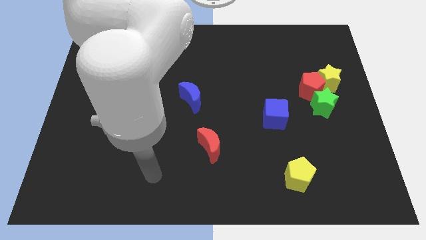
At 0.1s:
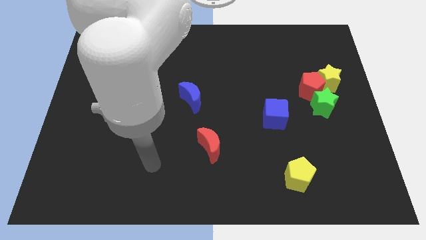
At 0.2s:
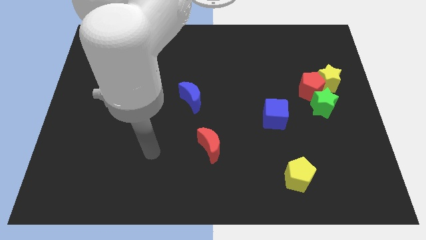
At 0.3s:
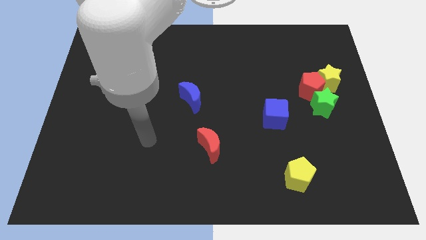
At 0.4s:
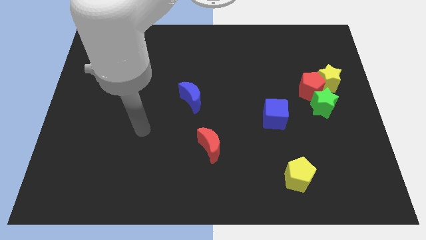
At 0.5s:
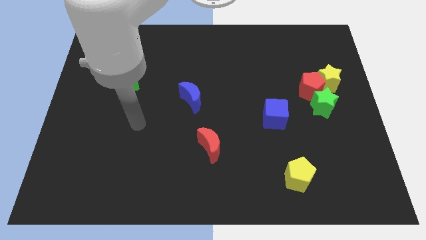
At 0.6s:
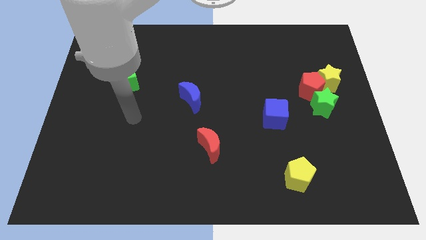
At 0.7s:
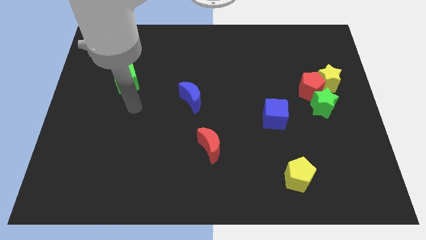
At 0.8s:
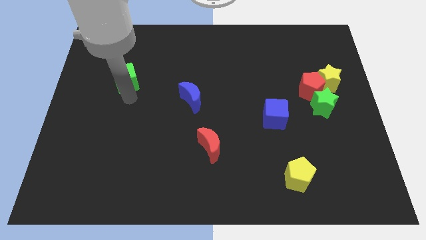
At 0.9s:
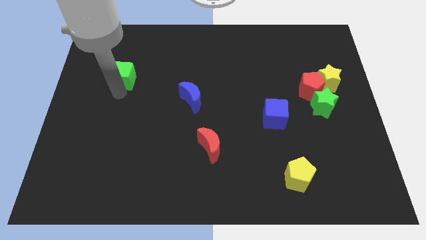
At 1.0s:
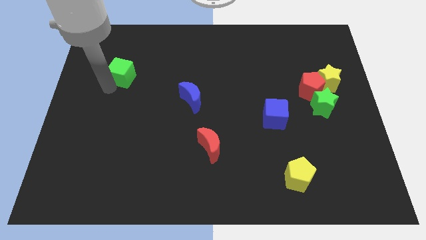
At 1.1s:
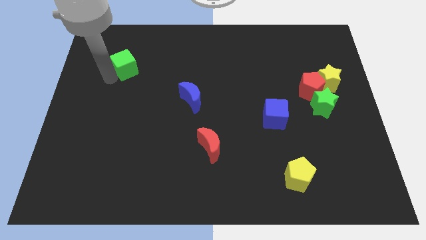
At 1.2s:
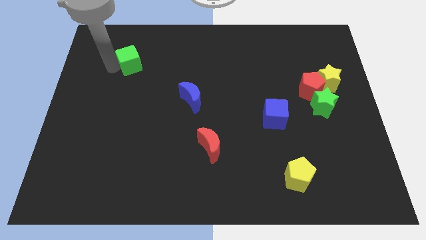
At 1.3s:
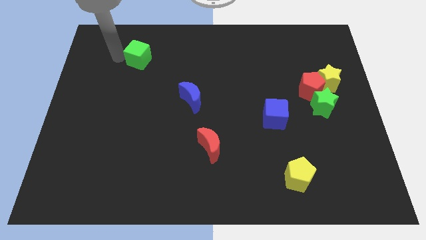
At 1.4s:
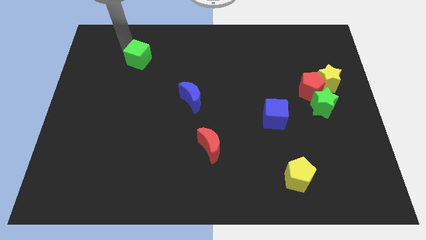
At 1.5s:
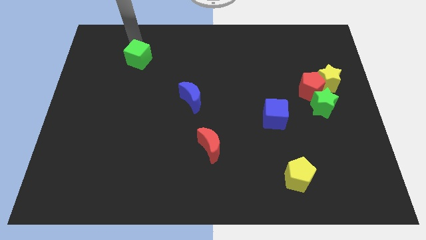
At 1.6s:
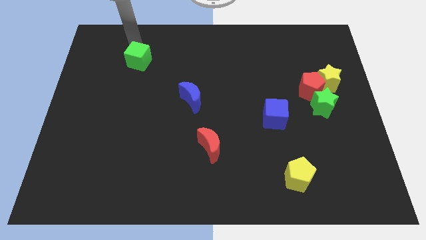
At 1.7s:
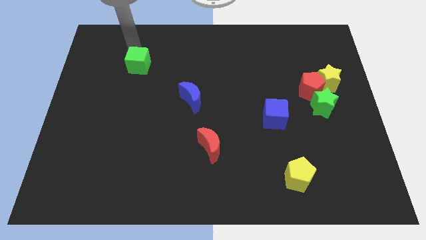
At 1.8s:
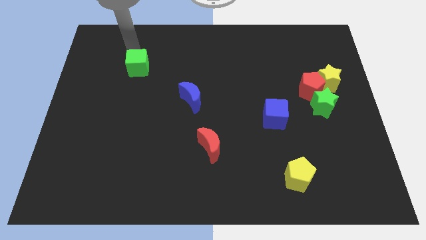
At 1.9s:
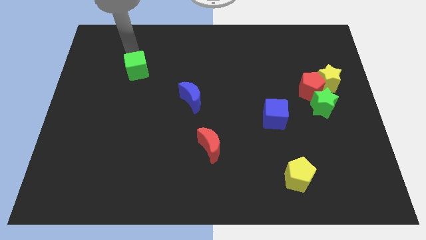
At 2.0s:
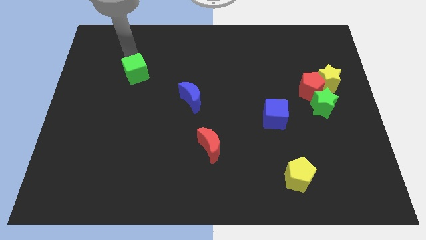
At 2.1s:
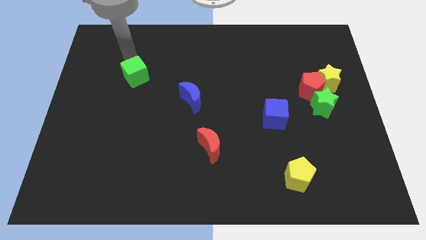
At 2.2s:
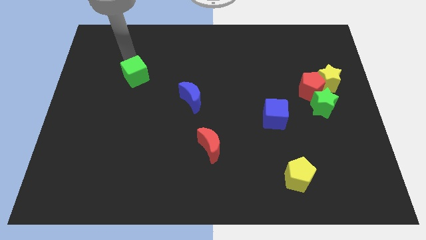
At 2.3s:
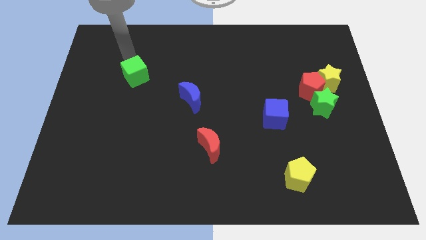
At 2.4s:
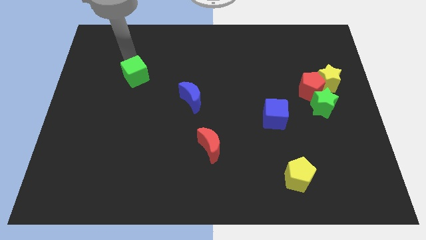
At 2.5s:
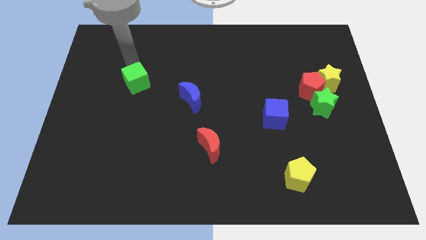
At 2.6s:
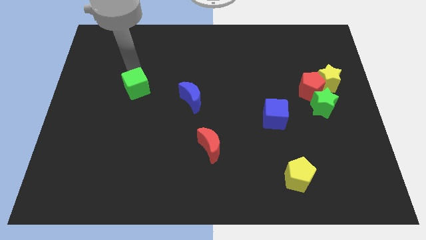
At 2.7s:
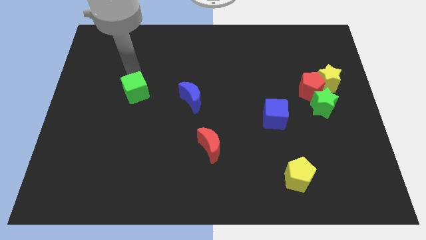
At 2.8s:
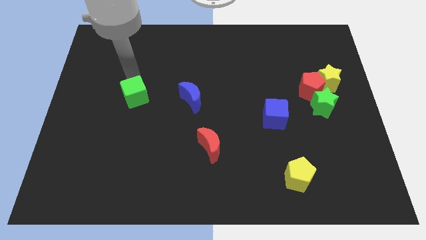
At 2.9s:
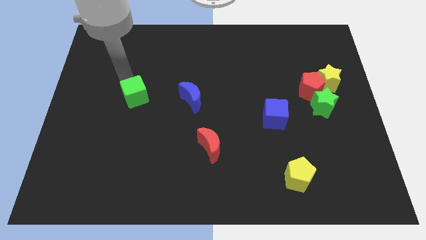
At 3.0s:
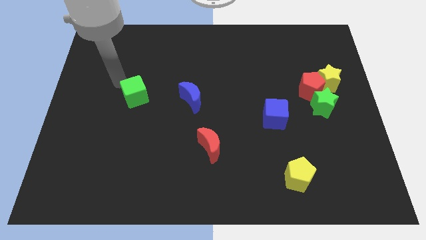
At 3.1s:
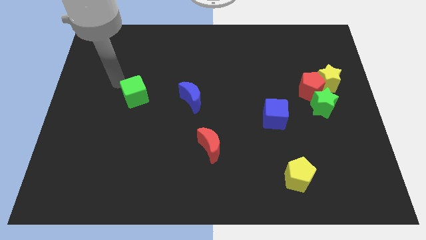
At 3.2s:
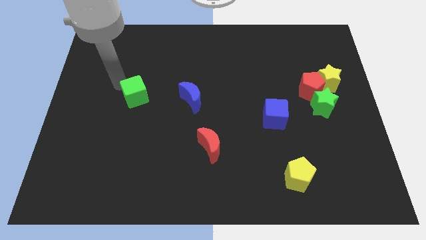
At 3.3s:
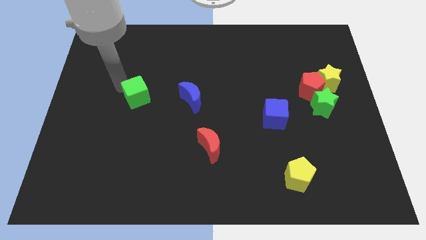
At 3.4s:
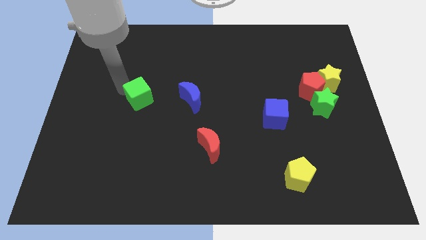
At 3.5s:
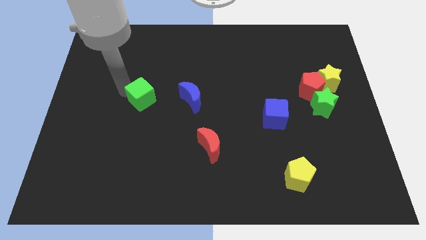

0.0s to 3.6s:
slide the green cube a little downwards and then right

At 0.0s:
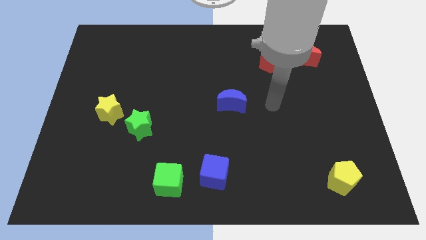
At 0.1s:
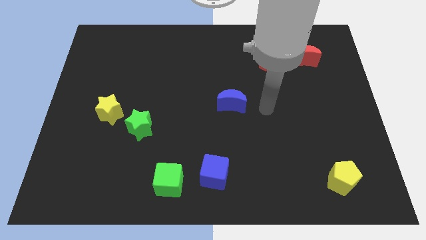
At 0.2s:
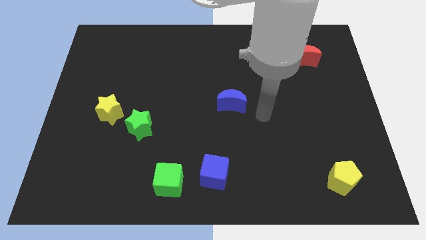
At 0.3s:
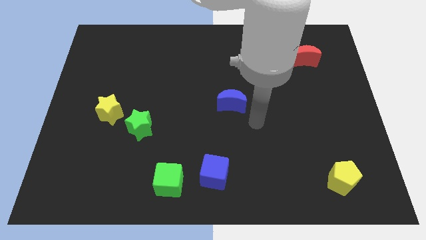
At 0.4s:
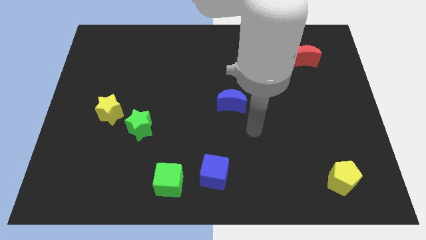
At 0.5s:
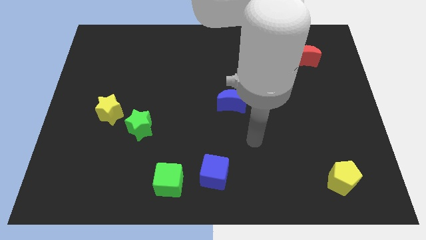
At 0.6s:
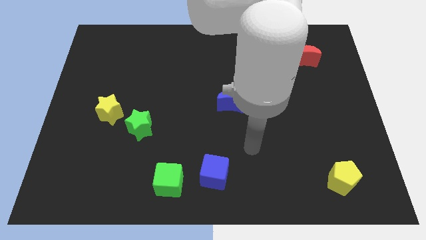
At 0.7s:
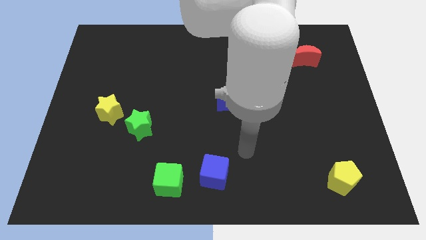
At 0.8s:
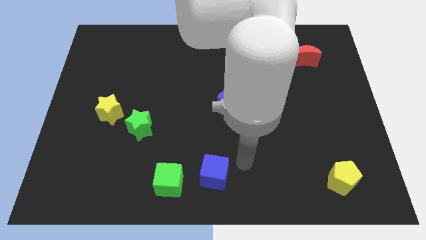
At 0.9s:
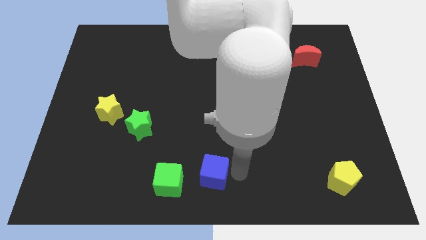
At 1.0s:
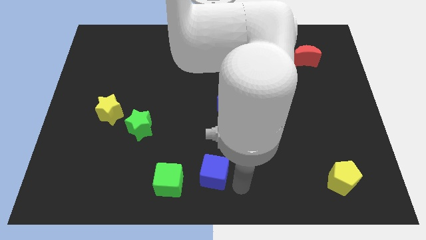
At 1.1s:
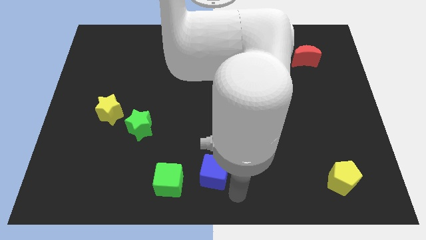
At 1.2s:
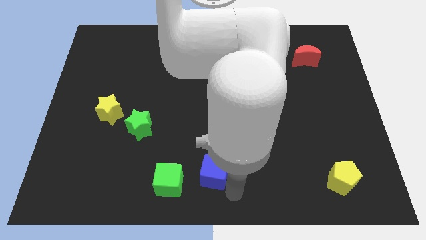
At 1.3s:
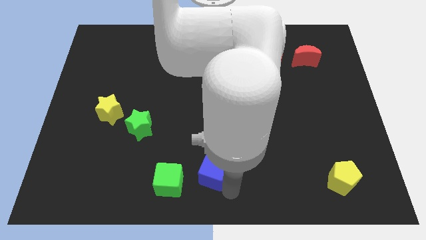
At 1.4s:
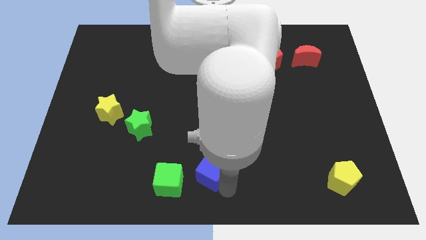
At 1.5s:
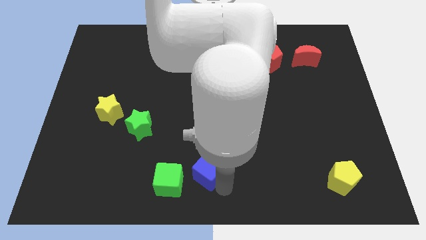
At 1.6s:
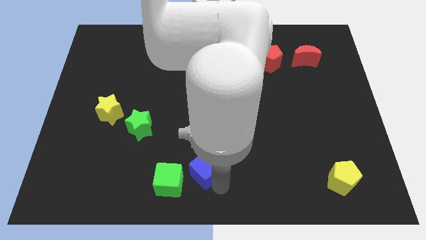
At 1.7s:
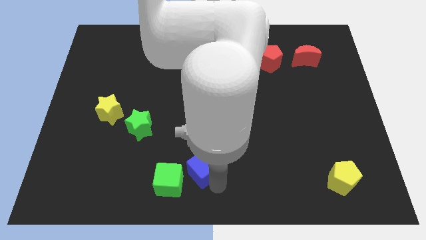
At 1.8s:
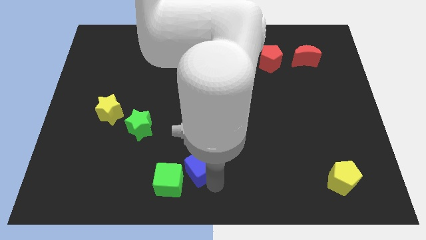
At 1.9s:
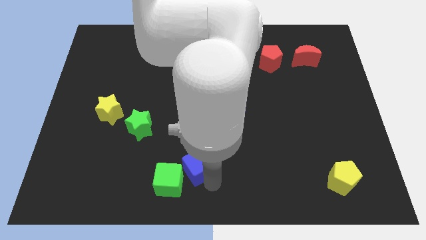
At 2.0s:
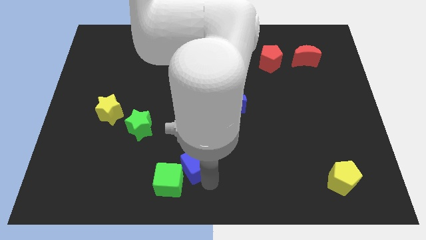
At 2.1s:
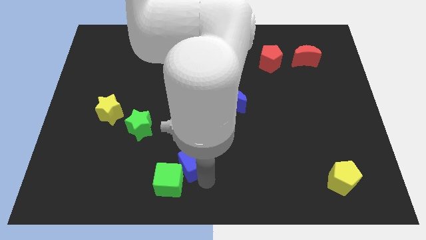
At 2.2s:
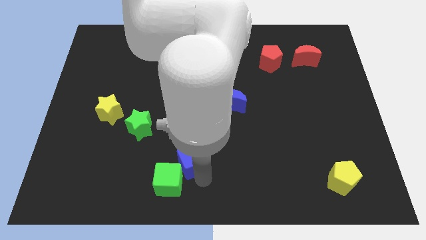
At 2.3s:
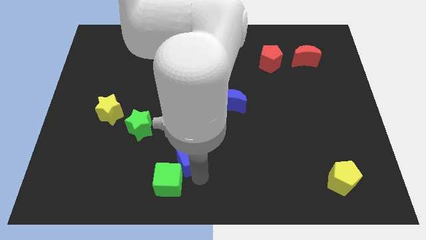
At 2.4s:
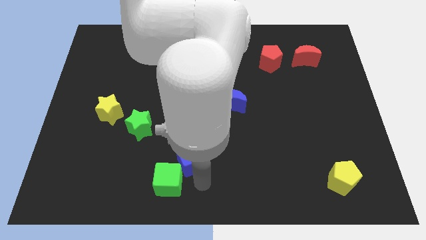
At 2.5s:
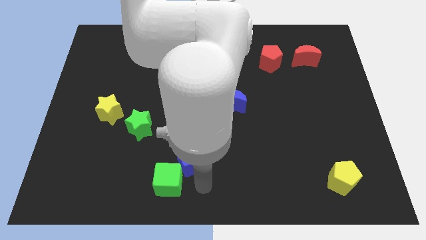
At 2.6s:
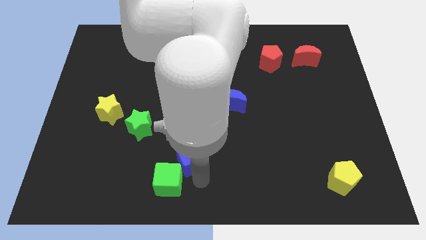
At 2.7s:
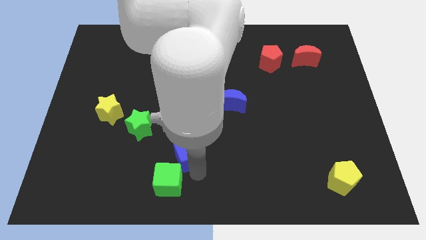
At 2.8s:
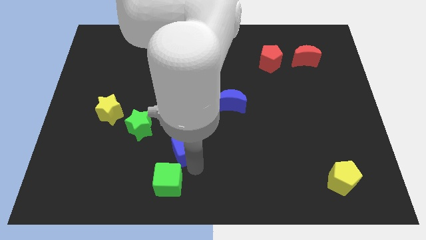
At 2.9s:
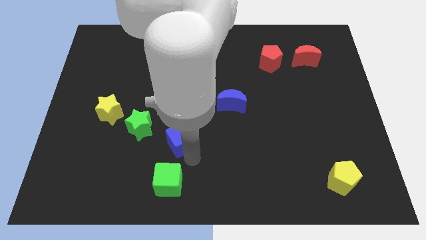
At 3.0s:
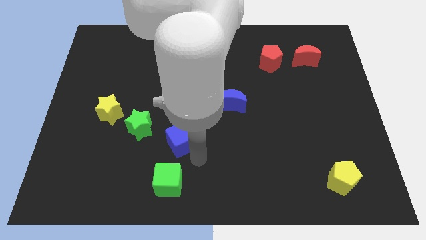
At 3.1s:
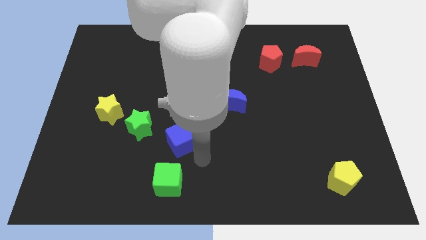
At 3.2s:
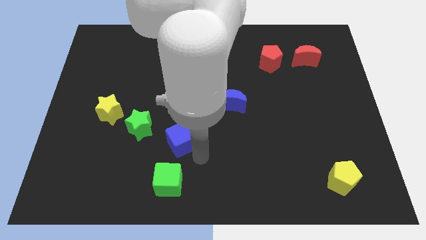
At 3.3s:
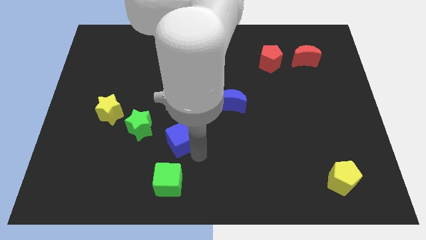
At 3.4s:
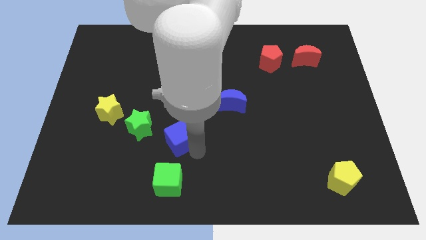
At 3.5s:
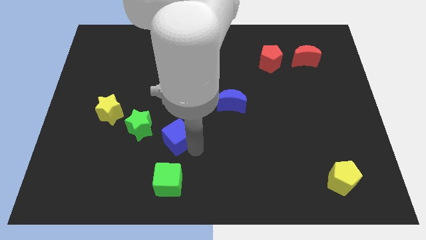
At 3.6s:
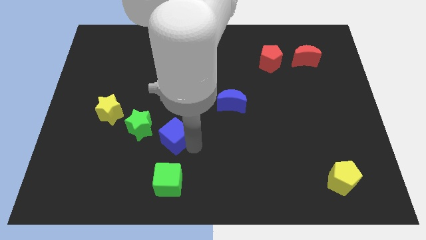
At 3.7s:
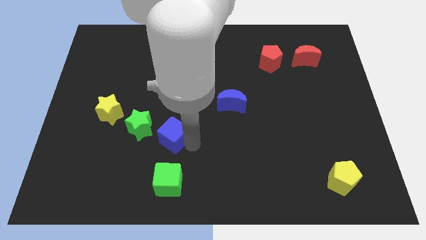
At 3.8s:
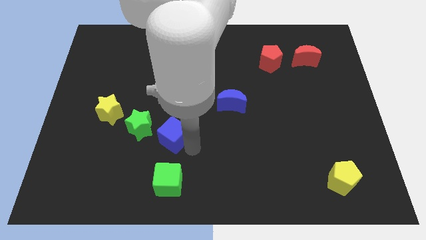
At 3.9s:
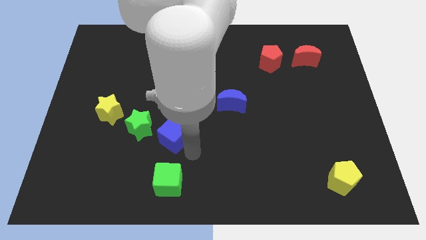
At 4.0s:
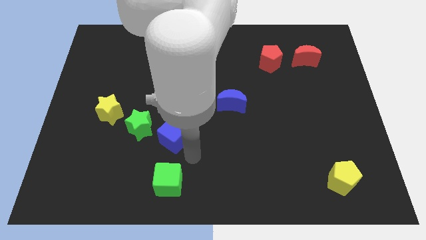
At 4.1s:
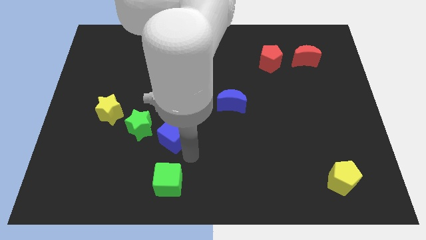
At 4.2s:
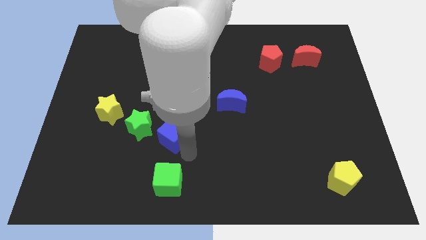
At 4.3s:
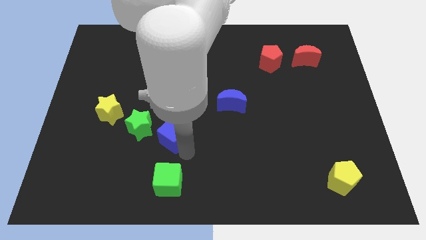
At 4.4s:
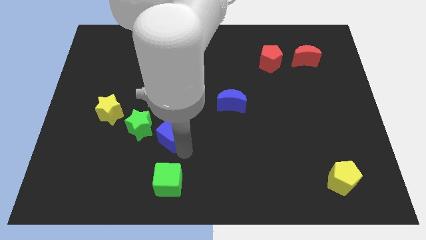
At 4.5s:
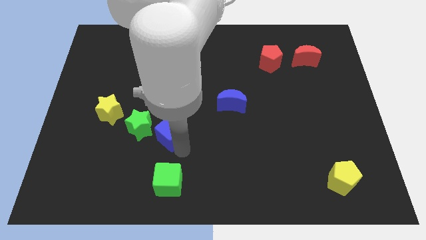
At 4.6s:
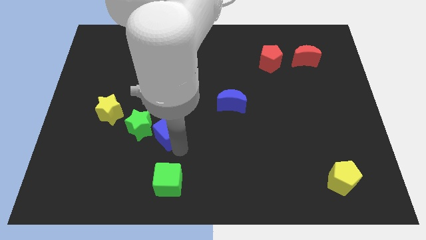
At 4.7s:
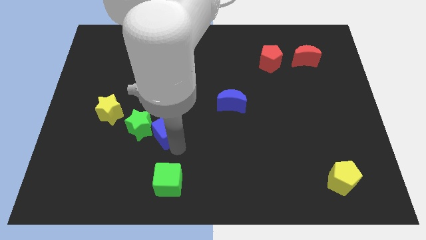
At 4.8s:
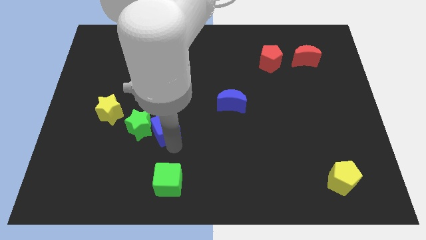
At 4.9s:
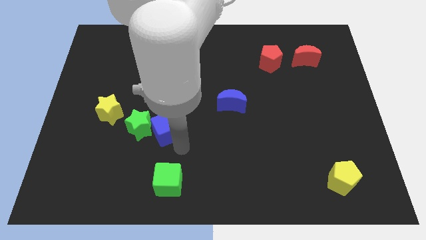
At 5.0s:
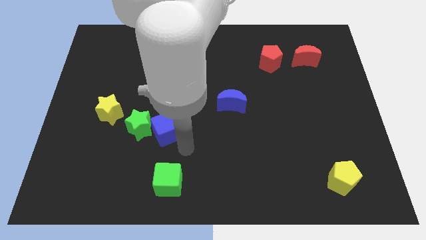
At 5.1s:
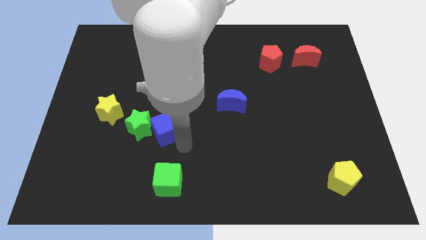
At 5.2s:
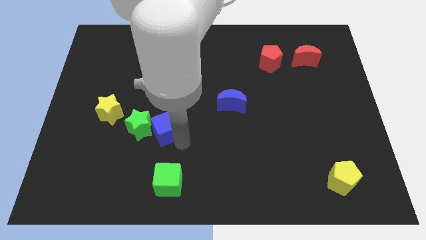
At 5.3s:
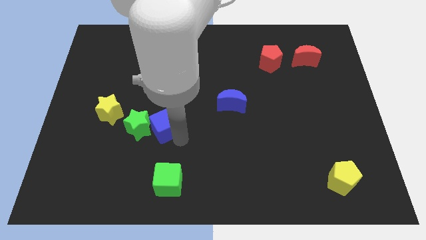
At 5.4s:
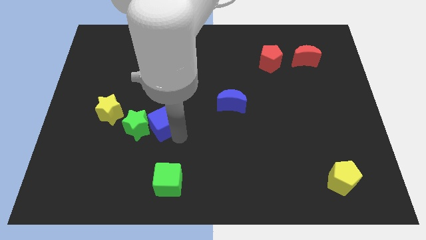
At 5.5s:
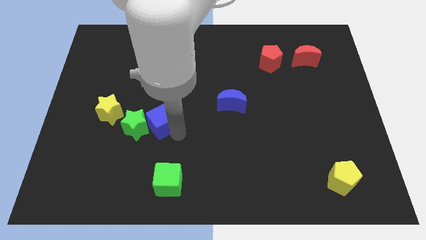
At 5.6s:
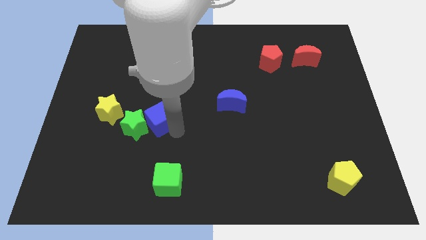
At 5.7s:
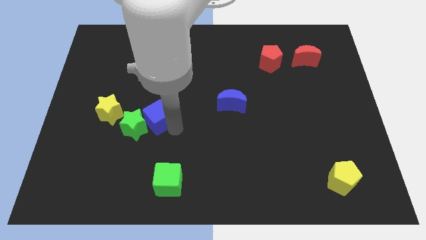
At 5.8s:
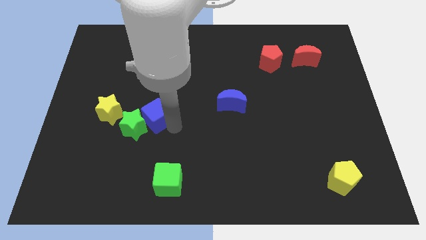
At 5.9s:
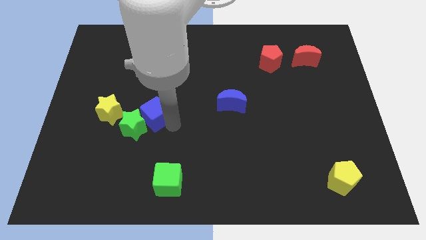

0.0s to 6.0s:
push the blue cube upwards and to the left diagonally
